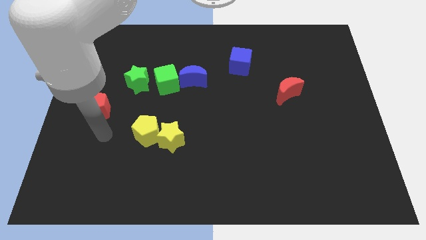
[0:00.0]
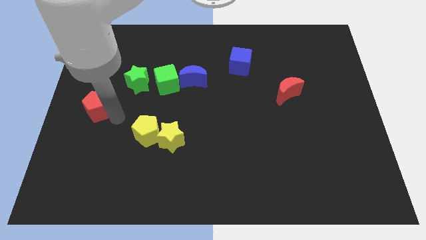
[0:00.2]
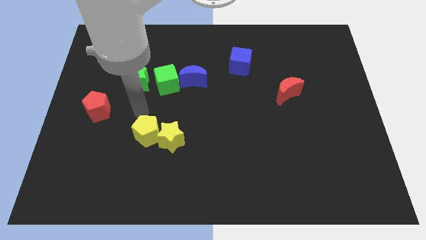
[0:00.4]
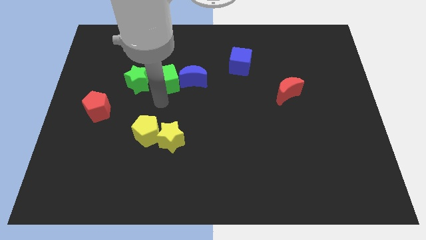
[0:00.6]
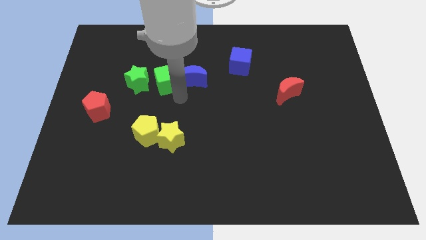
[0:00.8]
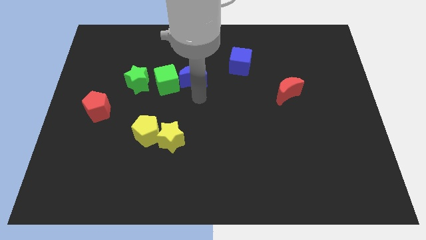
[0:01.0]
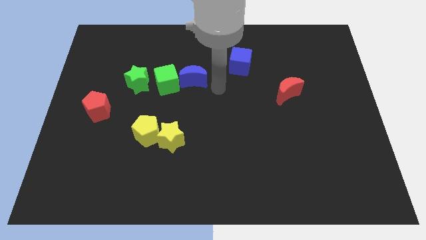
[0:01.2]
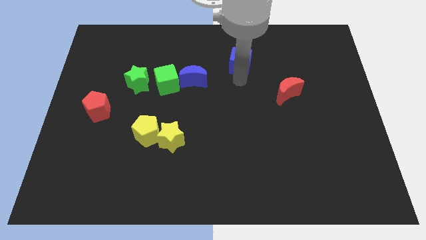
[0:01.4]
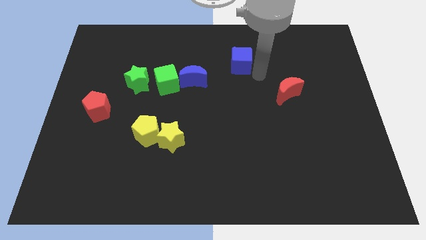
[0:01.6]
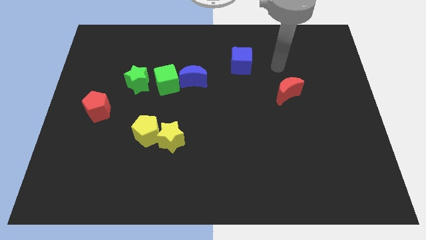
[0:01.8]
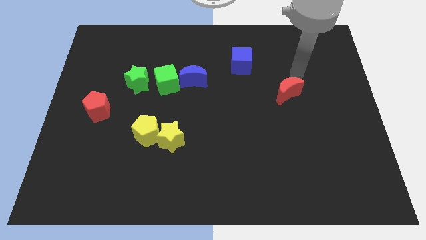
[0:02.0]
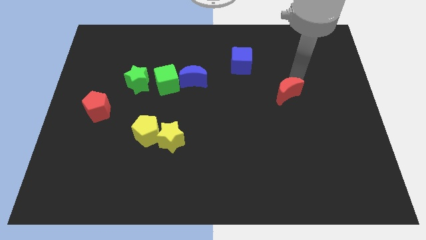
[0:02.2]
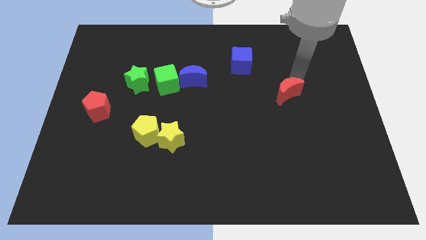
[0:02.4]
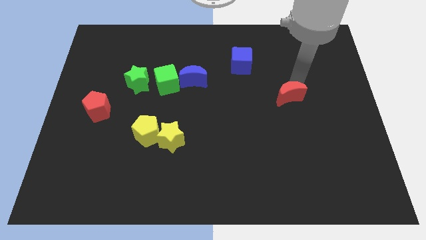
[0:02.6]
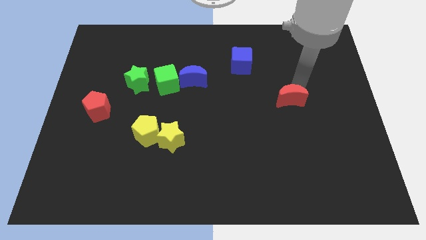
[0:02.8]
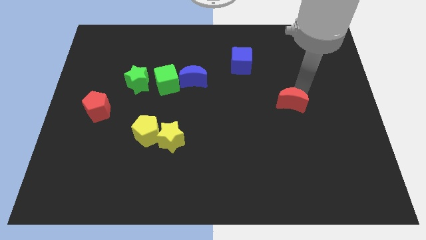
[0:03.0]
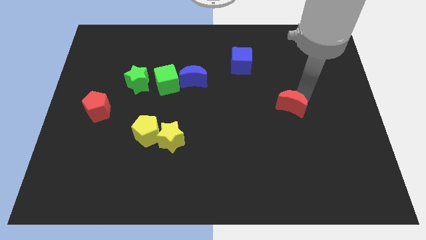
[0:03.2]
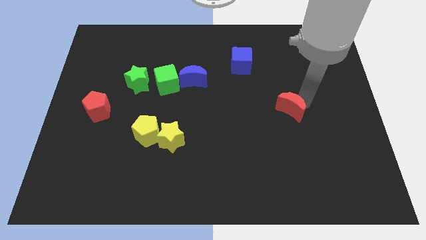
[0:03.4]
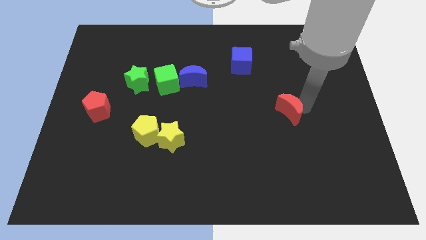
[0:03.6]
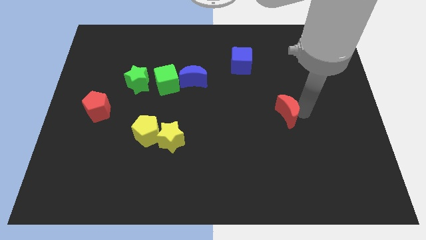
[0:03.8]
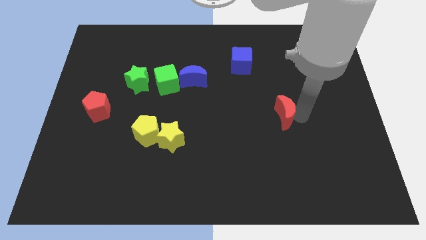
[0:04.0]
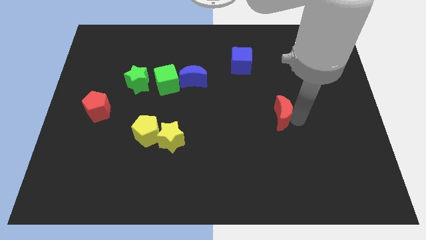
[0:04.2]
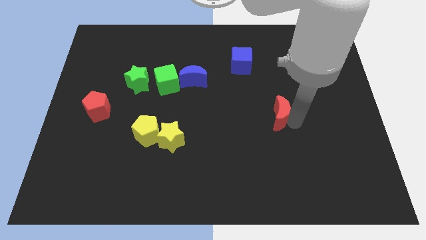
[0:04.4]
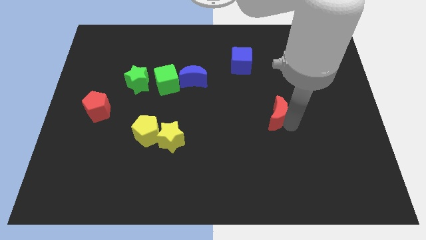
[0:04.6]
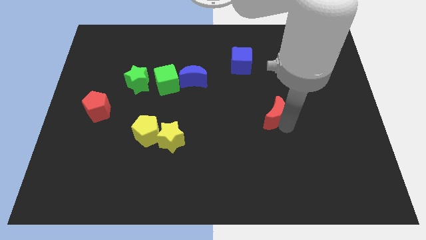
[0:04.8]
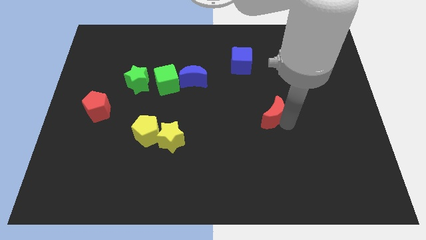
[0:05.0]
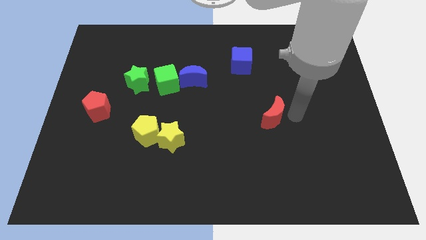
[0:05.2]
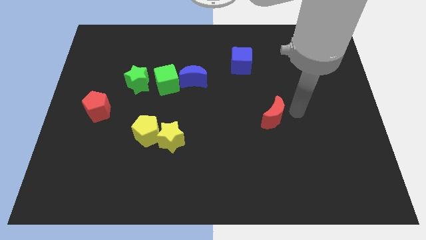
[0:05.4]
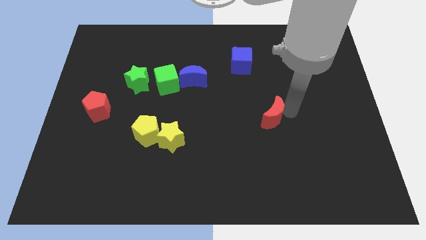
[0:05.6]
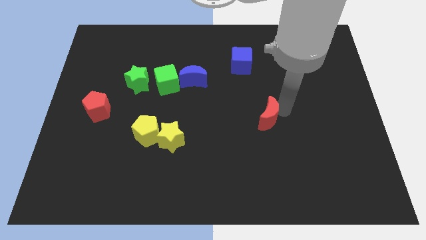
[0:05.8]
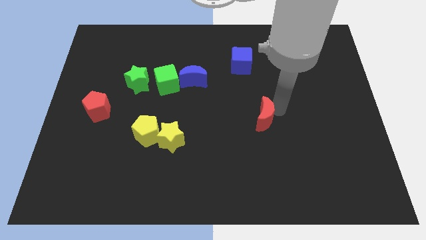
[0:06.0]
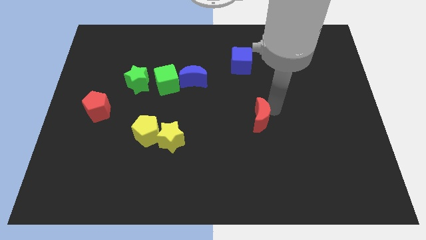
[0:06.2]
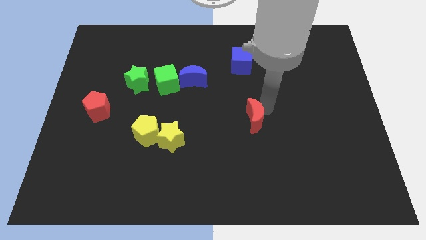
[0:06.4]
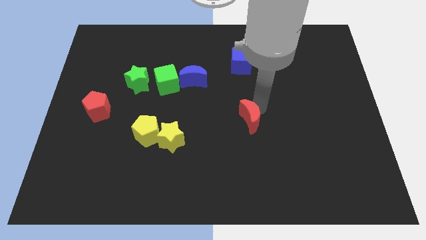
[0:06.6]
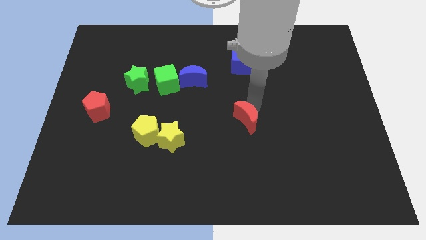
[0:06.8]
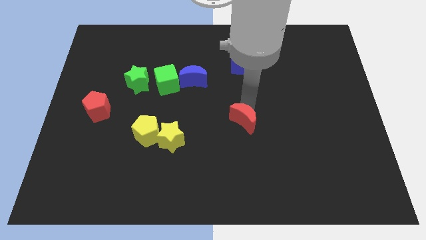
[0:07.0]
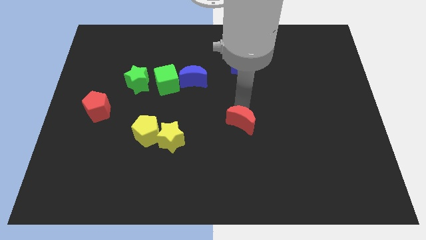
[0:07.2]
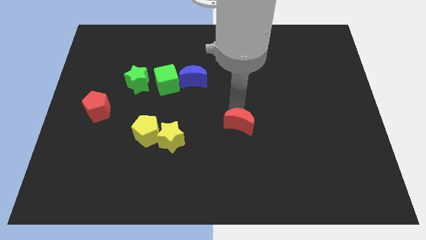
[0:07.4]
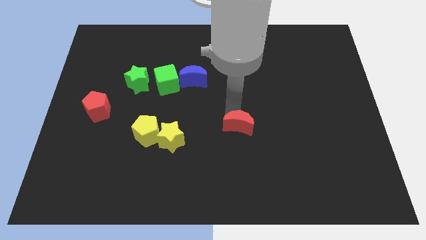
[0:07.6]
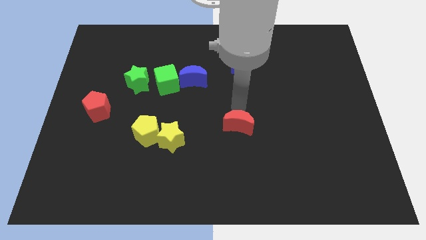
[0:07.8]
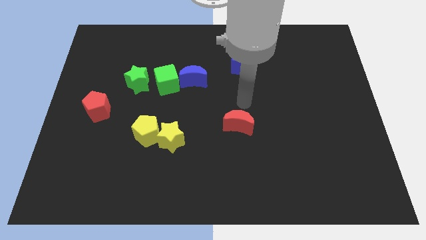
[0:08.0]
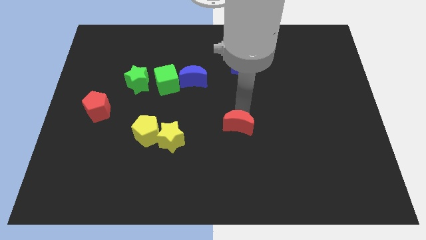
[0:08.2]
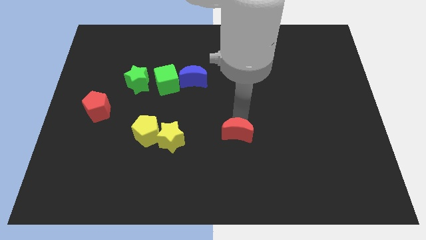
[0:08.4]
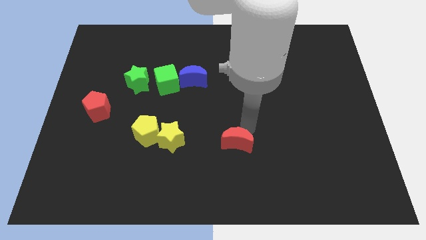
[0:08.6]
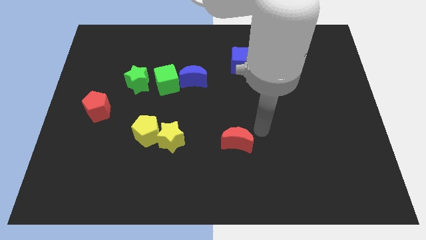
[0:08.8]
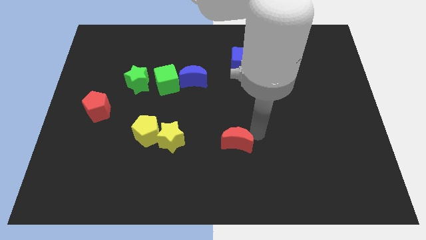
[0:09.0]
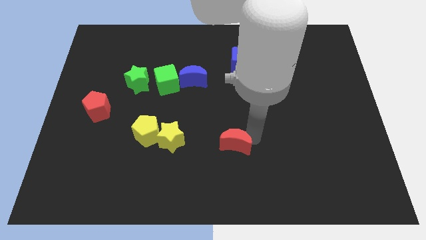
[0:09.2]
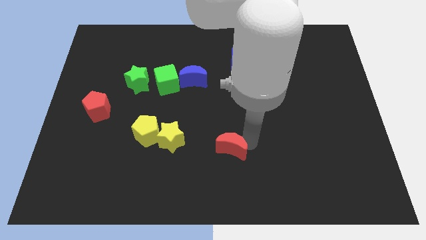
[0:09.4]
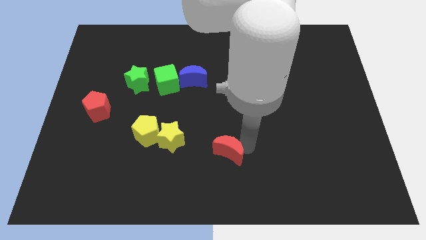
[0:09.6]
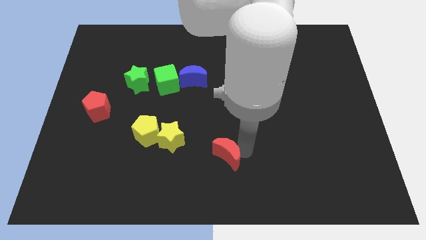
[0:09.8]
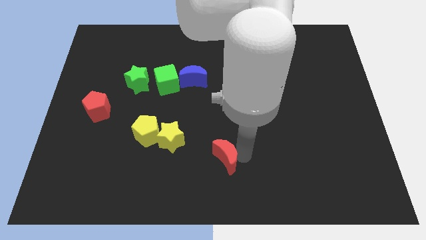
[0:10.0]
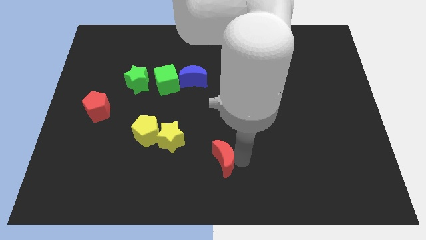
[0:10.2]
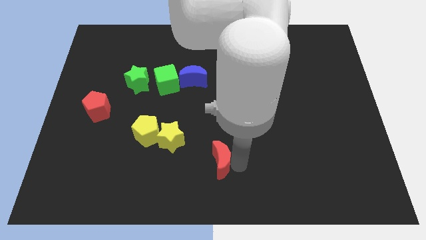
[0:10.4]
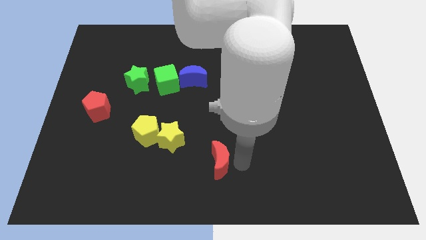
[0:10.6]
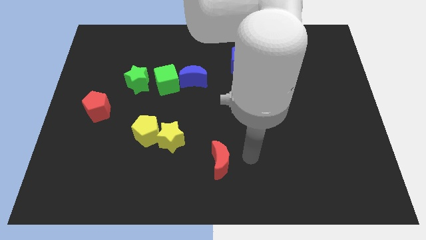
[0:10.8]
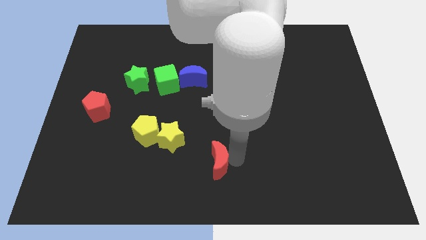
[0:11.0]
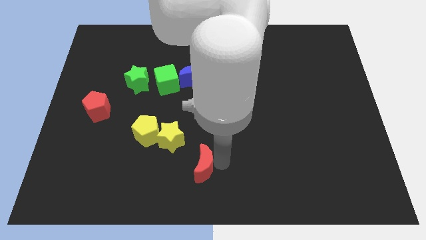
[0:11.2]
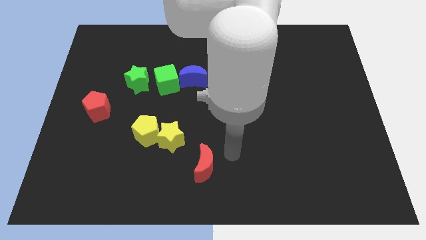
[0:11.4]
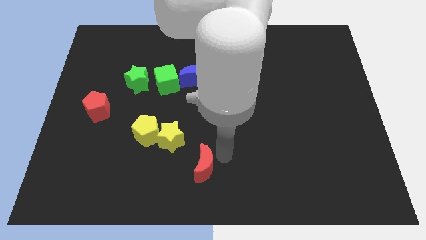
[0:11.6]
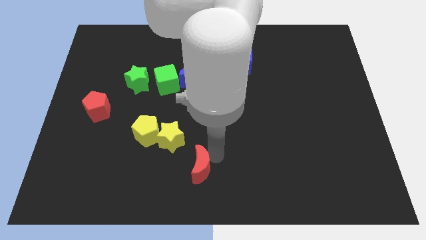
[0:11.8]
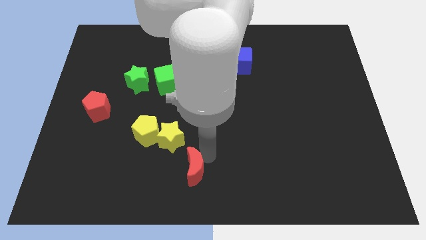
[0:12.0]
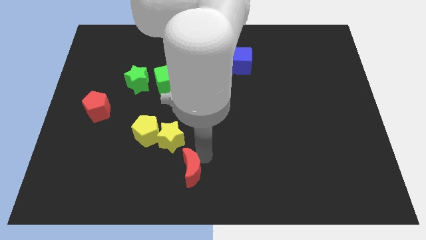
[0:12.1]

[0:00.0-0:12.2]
put the red moon below the yellow star

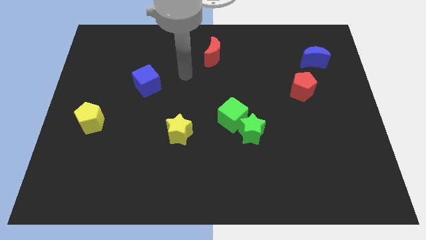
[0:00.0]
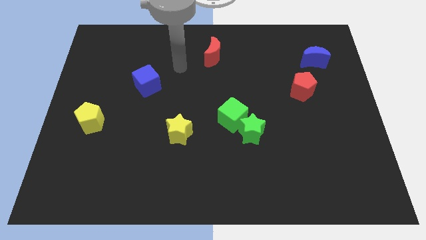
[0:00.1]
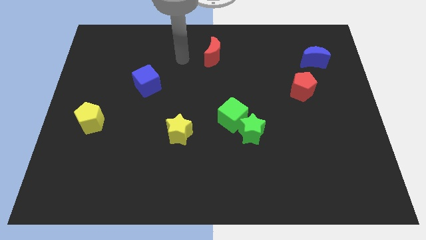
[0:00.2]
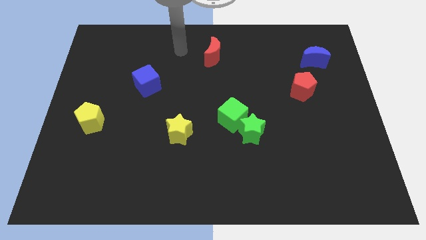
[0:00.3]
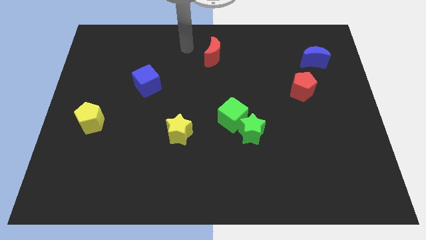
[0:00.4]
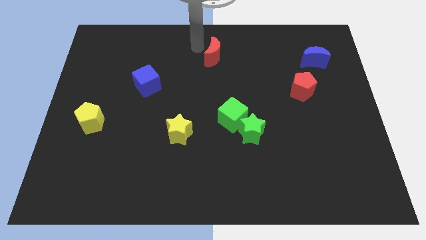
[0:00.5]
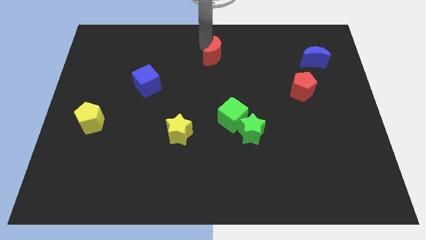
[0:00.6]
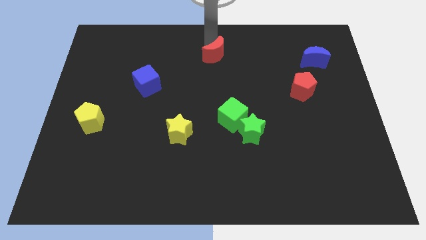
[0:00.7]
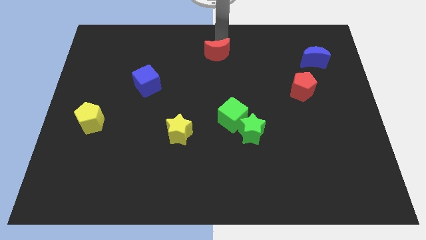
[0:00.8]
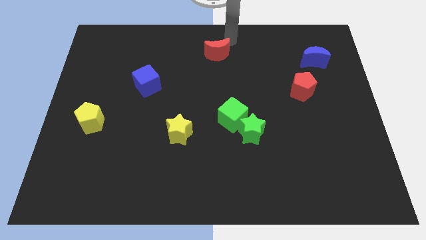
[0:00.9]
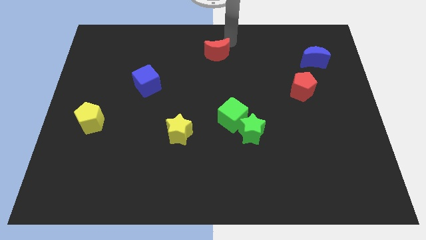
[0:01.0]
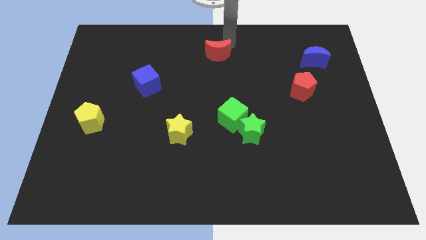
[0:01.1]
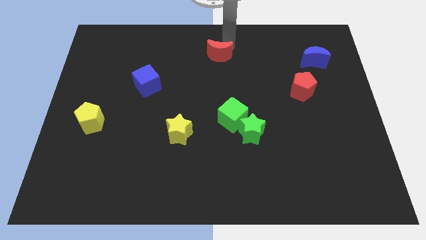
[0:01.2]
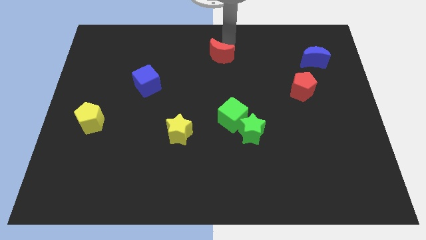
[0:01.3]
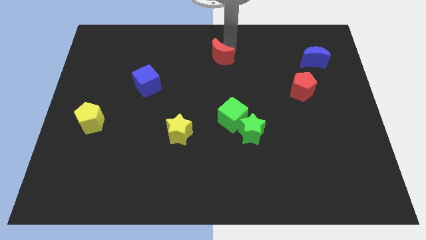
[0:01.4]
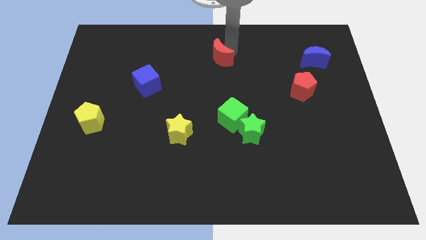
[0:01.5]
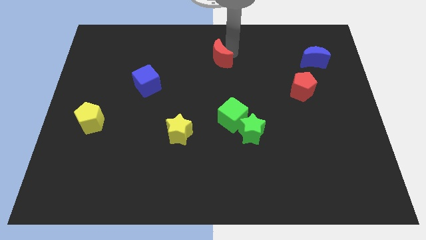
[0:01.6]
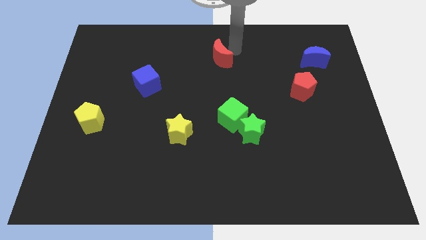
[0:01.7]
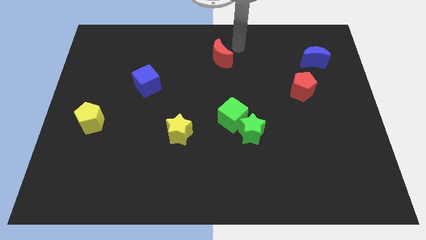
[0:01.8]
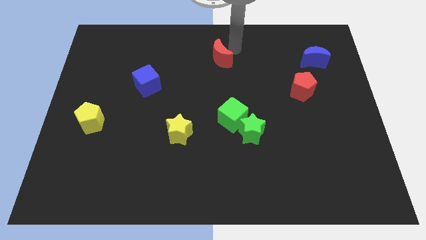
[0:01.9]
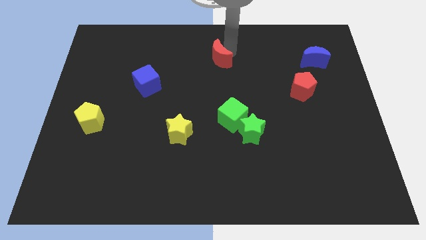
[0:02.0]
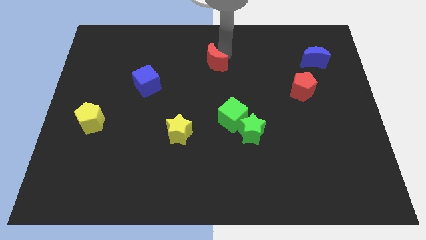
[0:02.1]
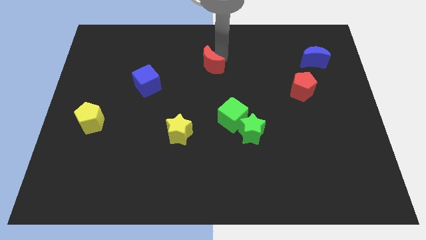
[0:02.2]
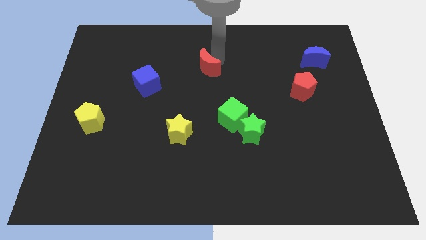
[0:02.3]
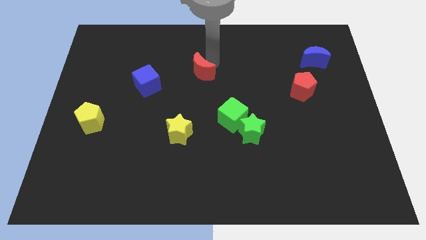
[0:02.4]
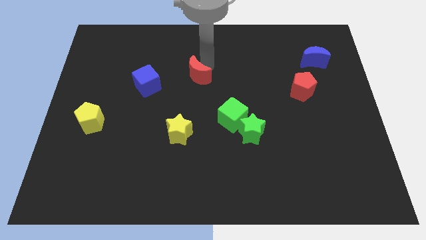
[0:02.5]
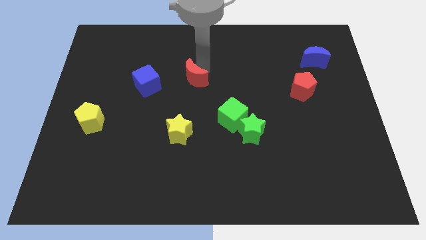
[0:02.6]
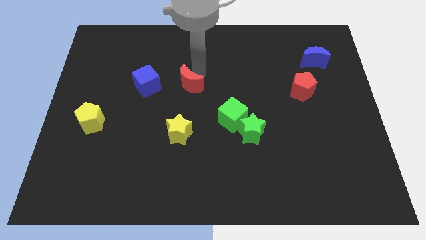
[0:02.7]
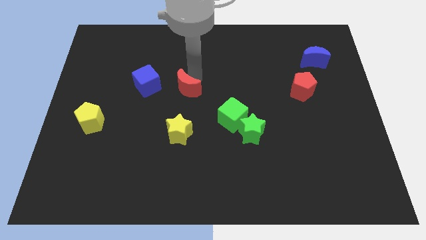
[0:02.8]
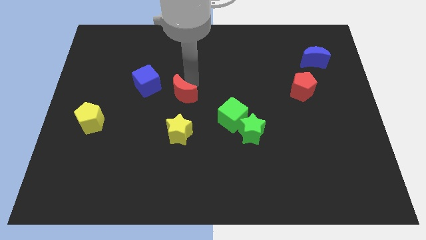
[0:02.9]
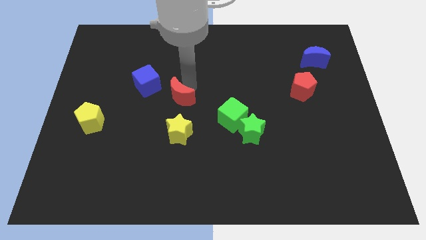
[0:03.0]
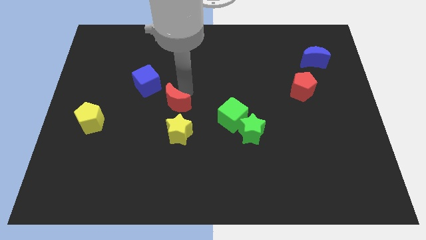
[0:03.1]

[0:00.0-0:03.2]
push the red moon diagonally up and to the left of the yellow star
